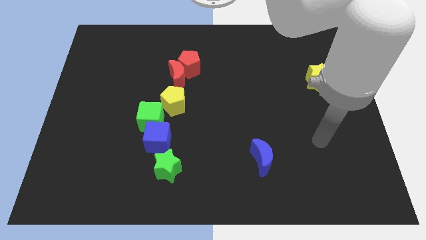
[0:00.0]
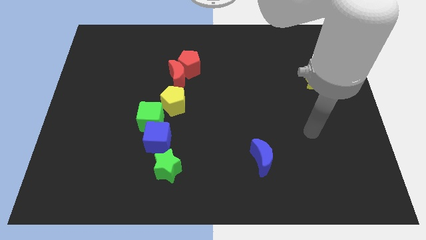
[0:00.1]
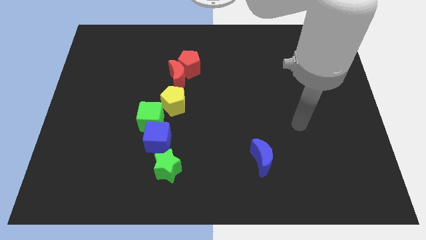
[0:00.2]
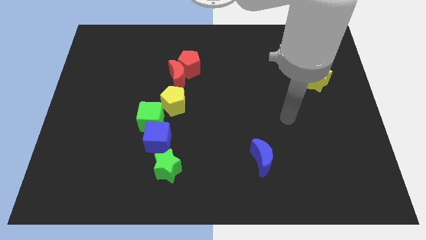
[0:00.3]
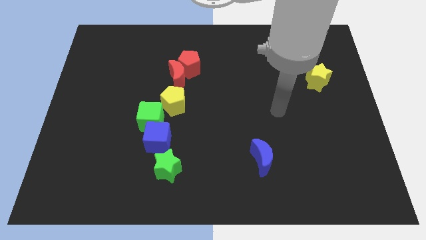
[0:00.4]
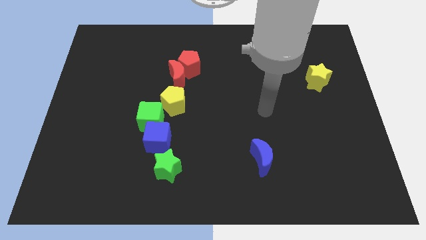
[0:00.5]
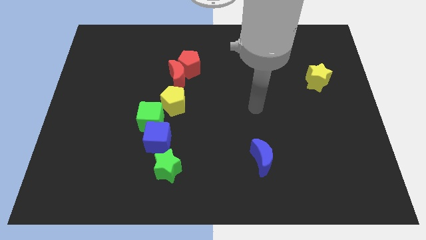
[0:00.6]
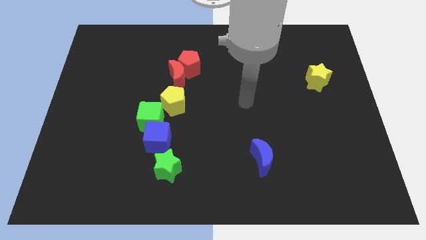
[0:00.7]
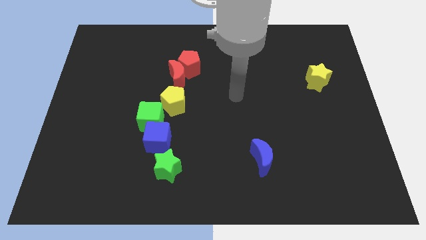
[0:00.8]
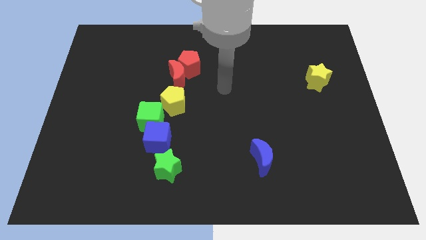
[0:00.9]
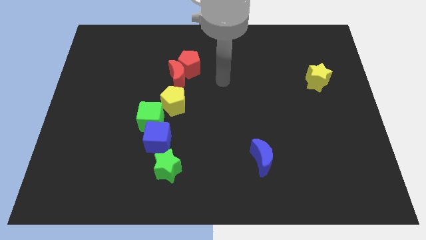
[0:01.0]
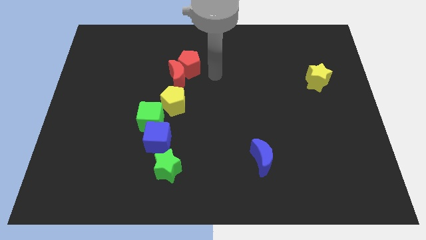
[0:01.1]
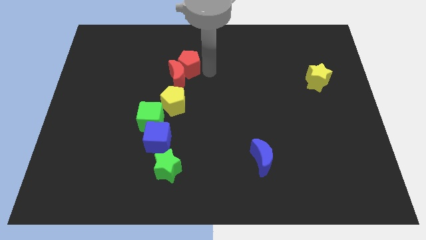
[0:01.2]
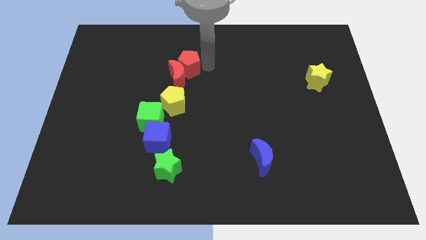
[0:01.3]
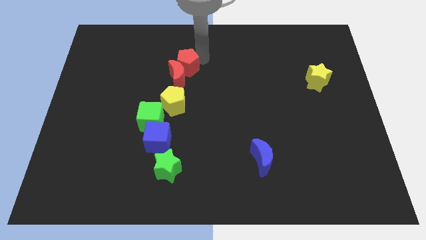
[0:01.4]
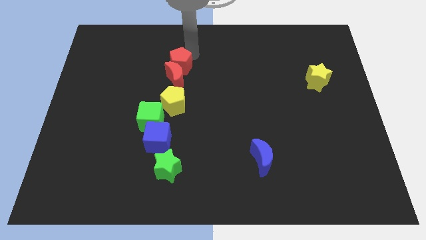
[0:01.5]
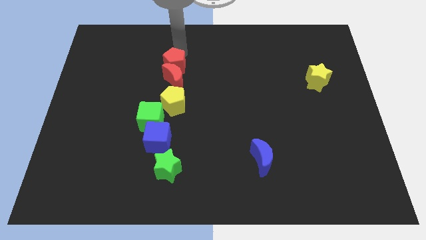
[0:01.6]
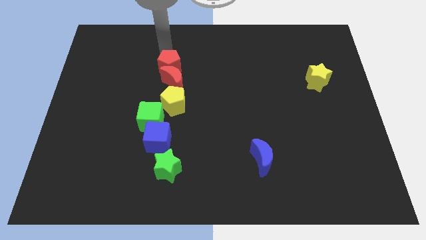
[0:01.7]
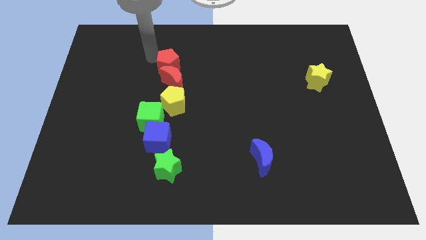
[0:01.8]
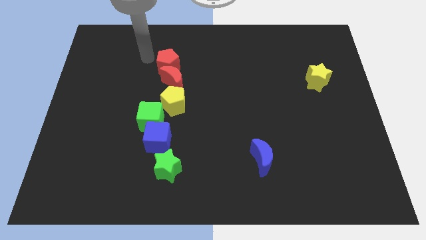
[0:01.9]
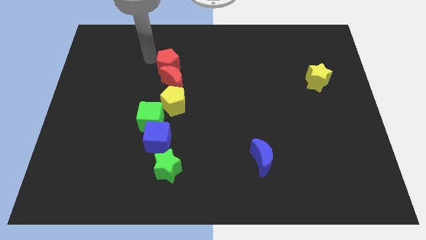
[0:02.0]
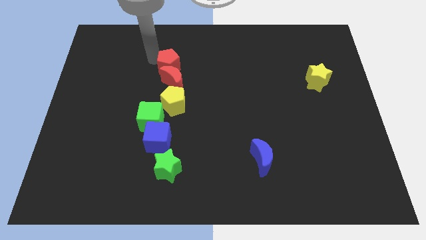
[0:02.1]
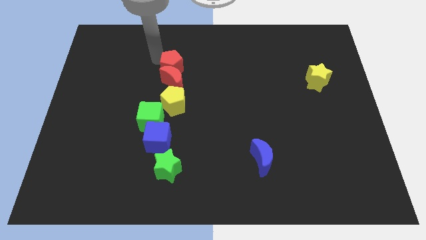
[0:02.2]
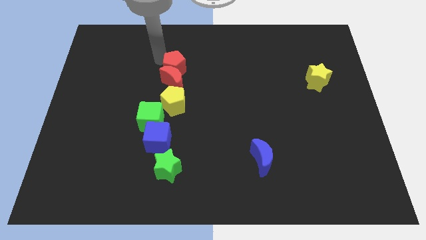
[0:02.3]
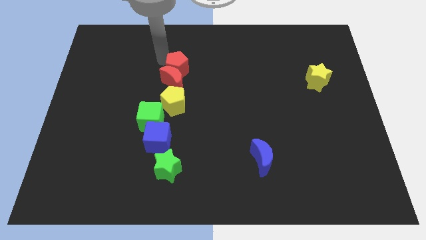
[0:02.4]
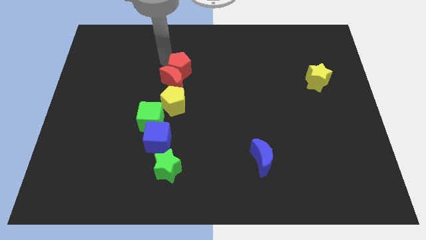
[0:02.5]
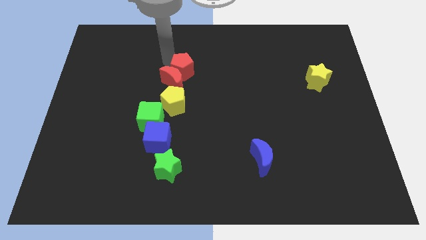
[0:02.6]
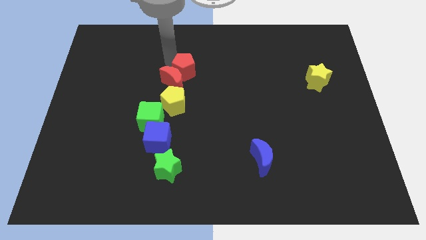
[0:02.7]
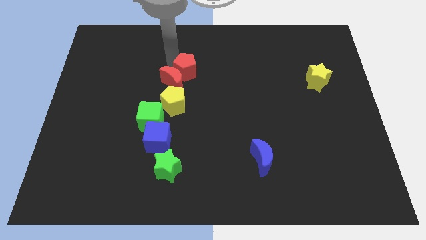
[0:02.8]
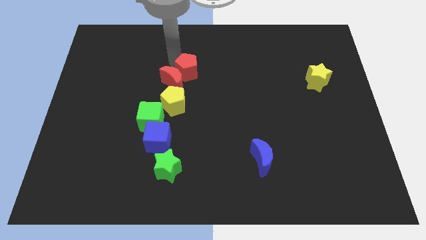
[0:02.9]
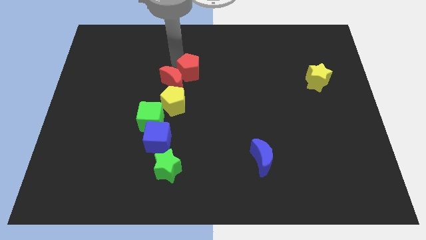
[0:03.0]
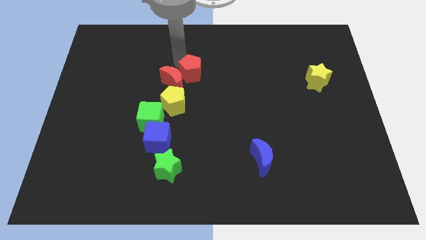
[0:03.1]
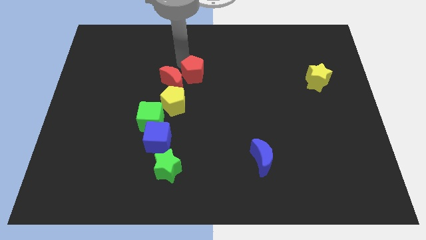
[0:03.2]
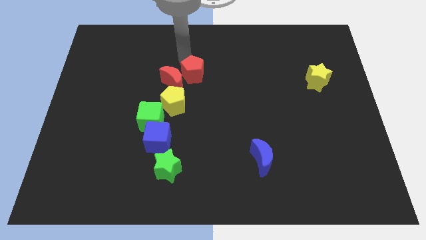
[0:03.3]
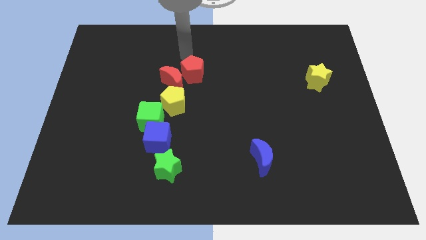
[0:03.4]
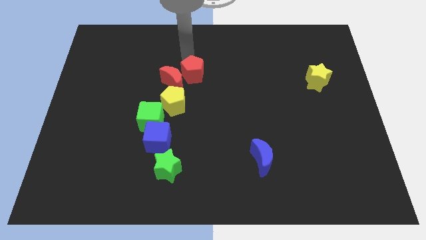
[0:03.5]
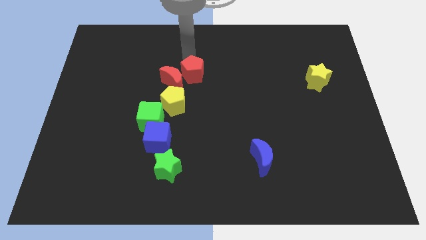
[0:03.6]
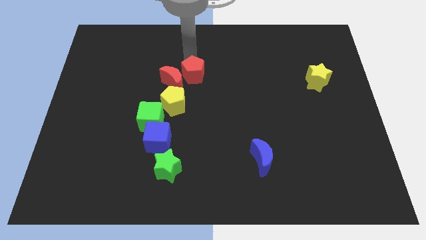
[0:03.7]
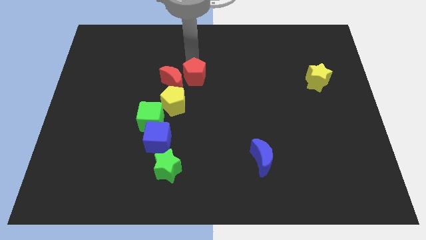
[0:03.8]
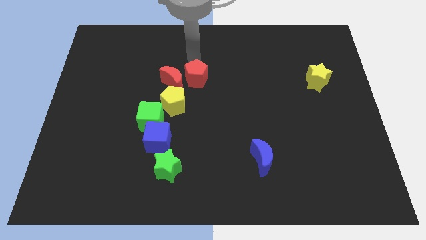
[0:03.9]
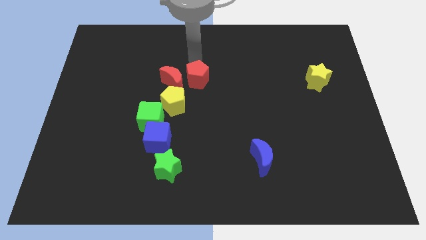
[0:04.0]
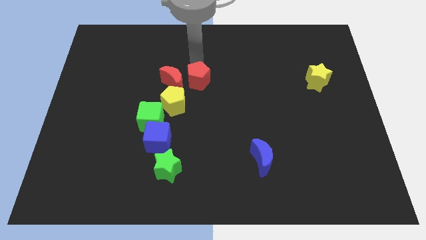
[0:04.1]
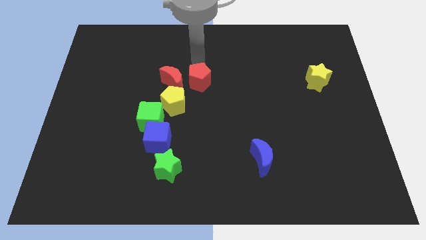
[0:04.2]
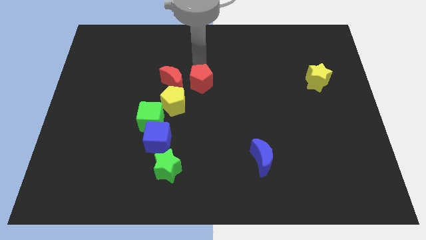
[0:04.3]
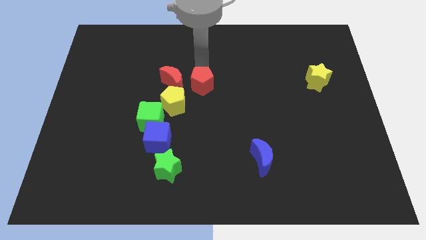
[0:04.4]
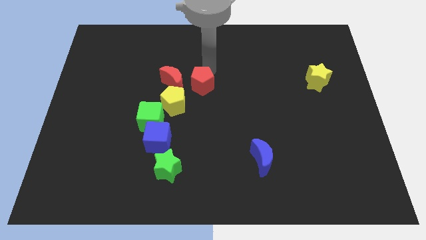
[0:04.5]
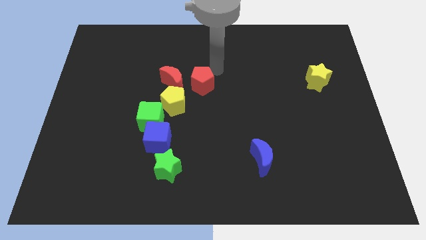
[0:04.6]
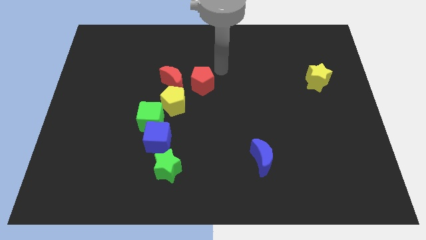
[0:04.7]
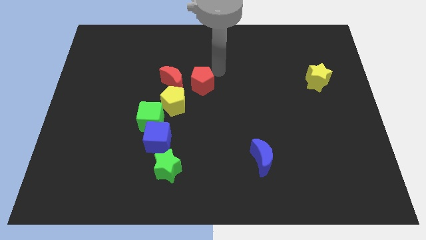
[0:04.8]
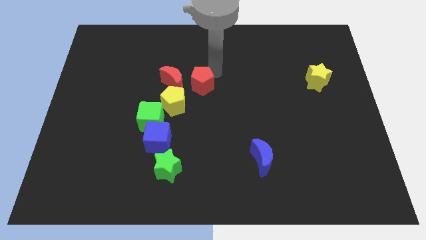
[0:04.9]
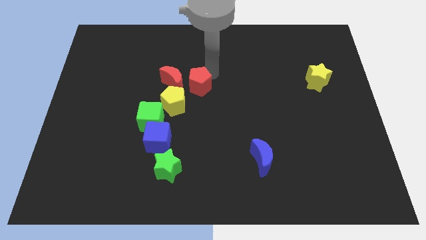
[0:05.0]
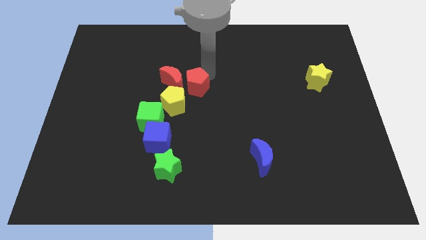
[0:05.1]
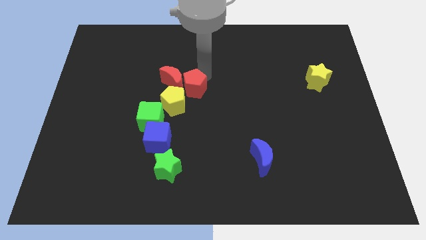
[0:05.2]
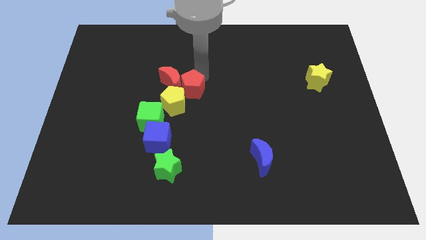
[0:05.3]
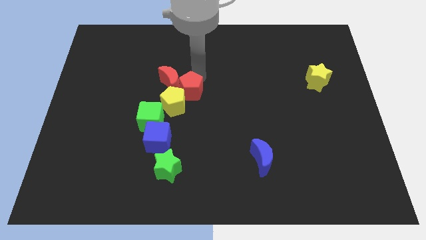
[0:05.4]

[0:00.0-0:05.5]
put the red pentagon close to the yellow pentagon
